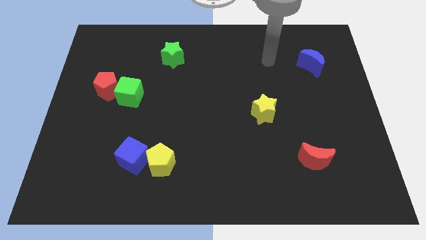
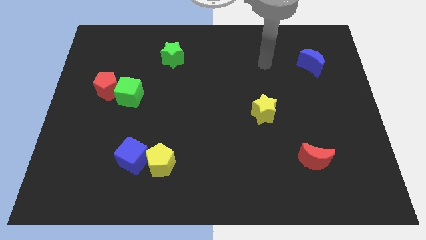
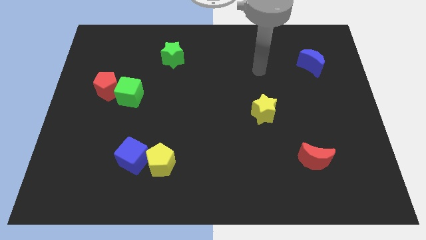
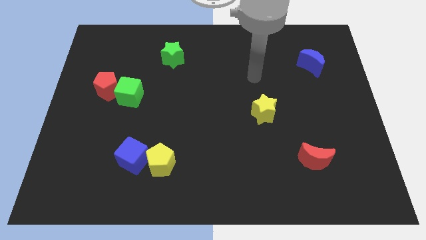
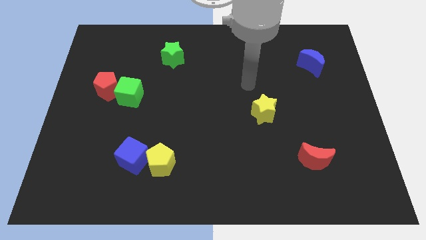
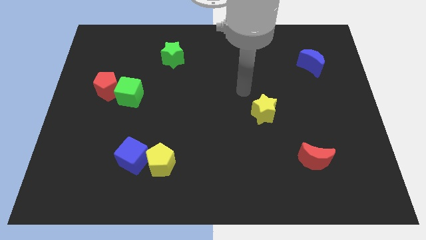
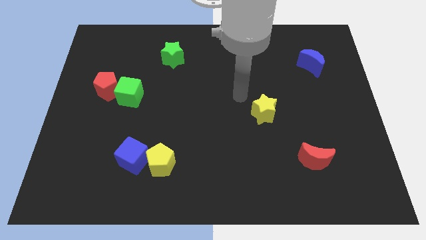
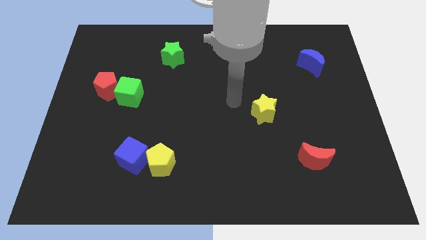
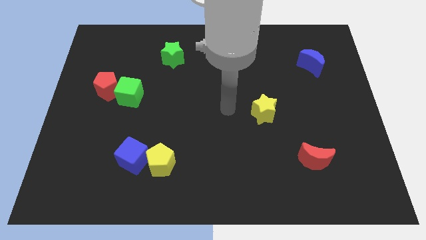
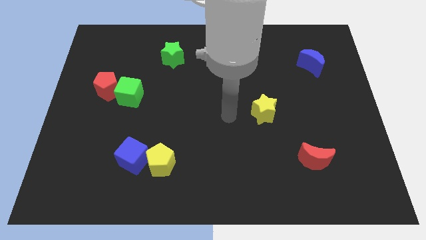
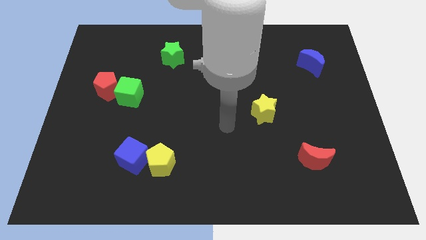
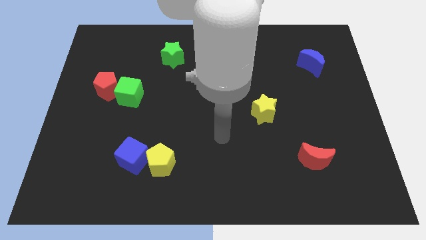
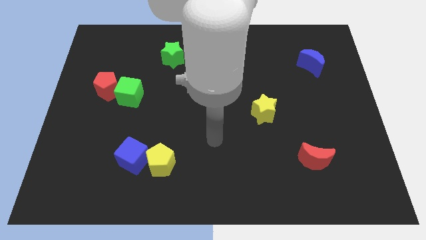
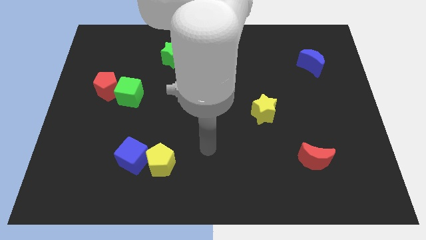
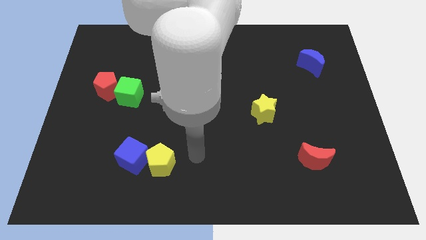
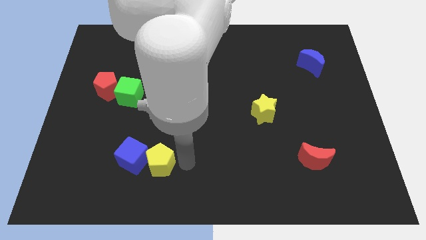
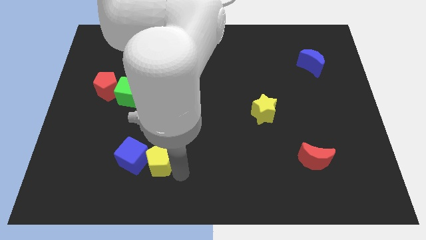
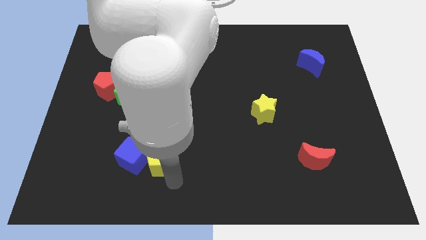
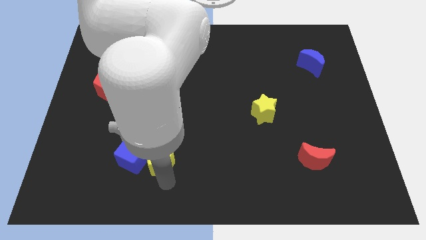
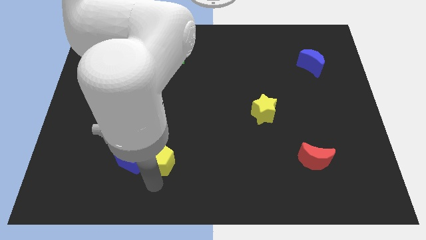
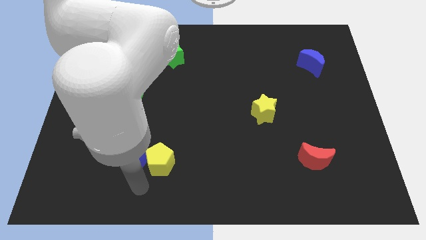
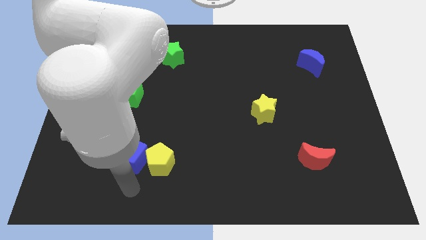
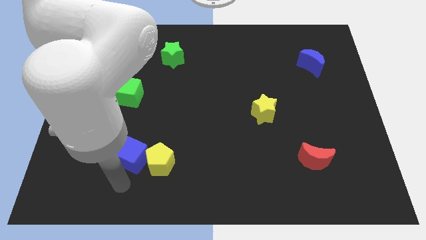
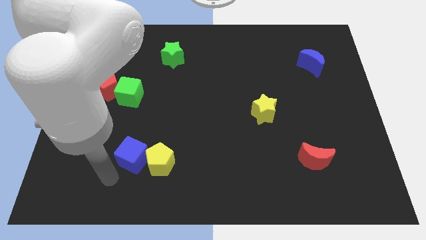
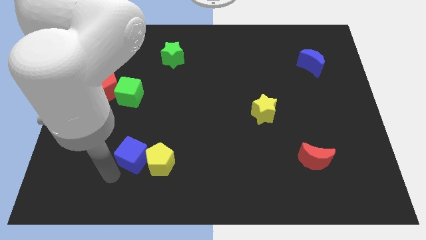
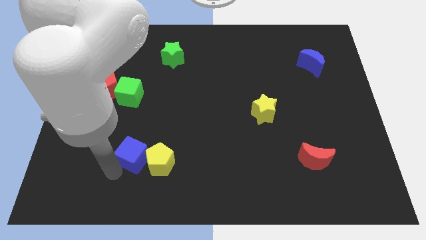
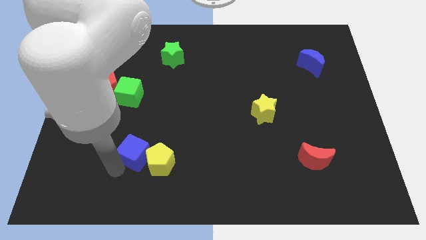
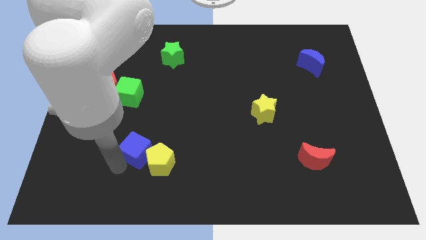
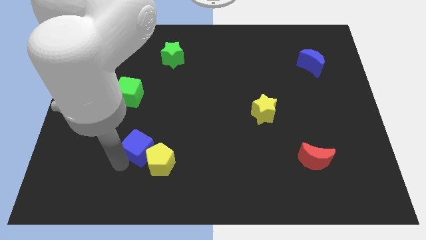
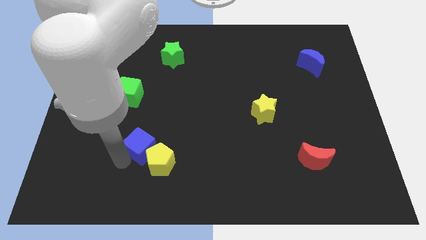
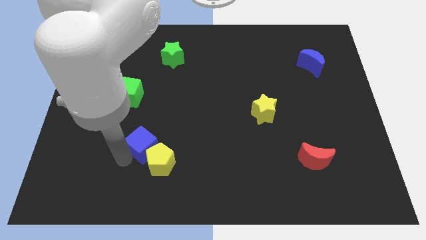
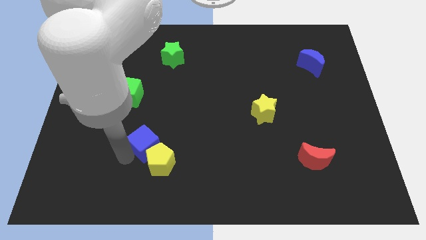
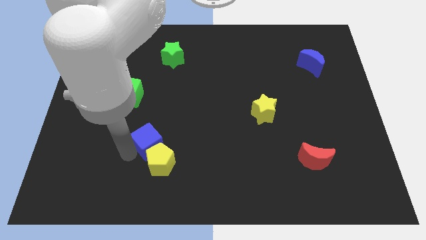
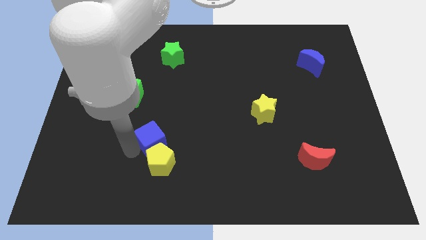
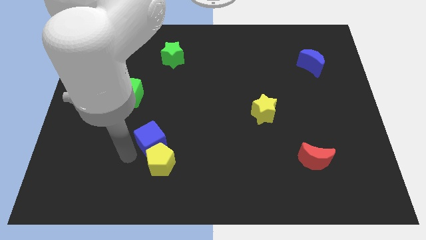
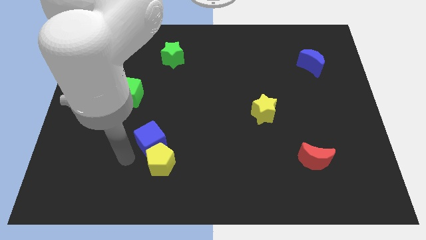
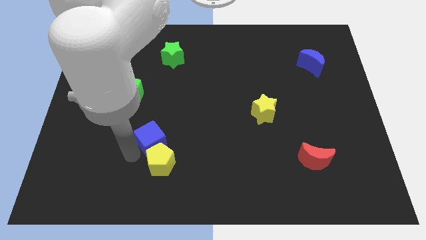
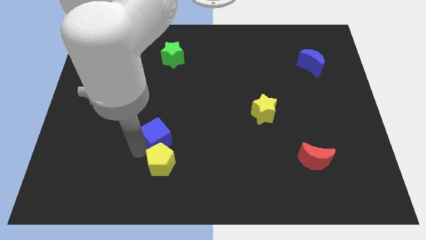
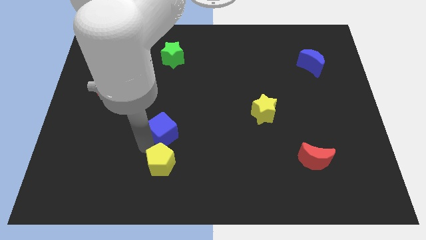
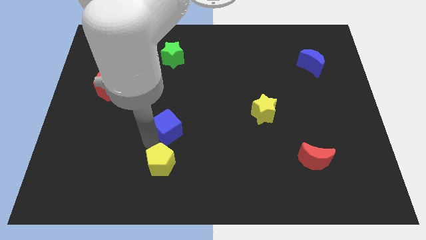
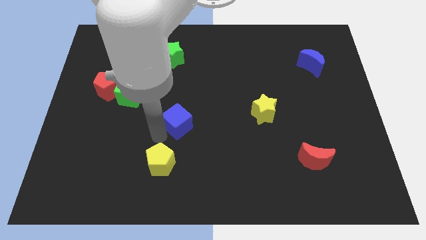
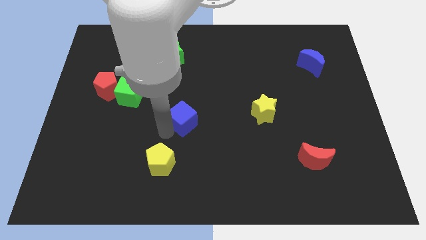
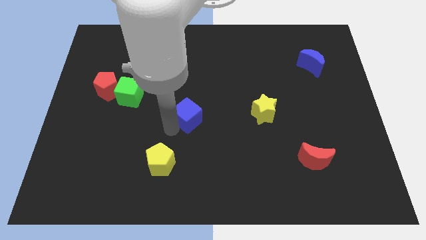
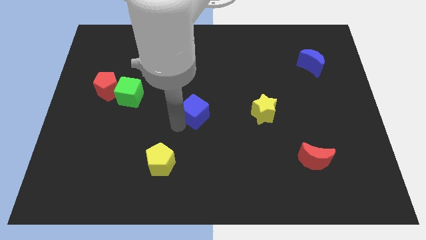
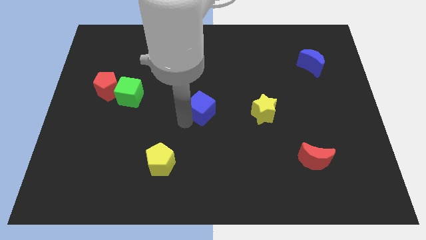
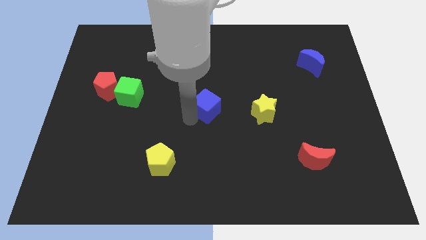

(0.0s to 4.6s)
move the blue cube diagonally upwards and right

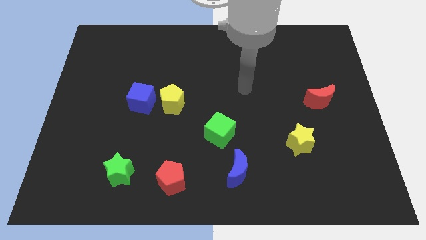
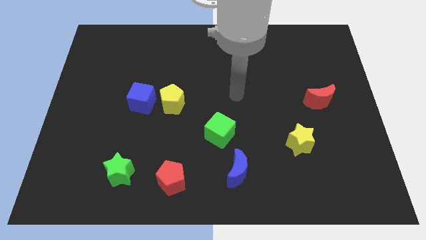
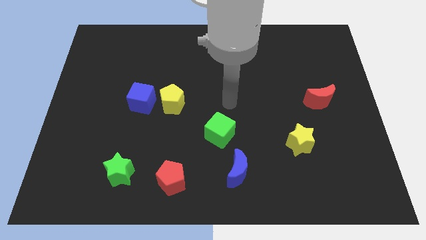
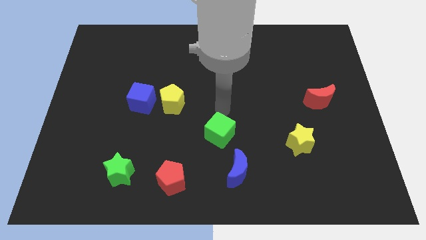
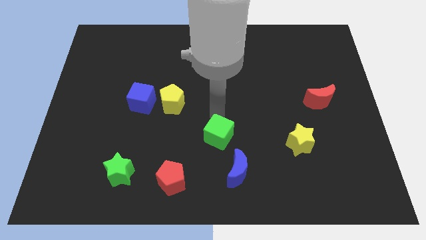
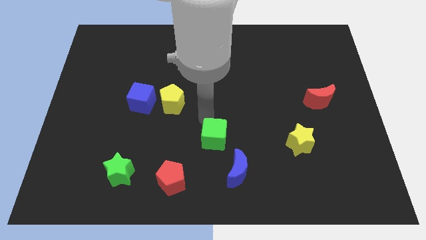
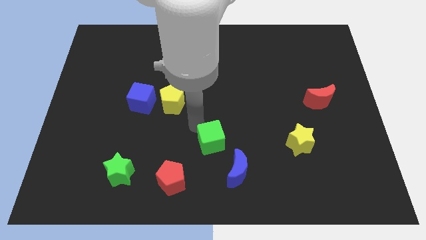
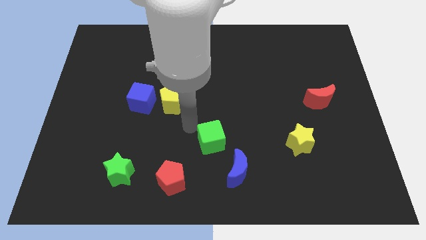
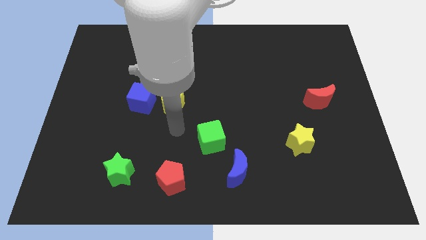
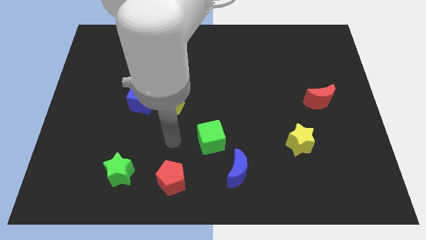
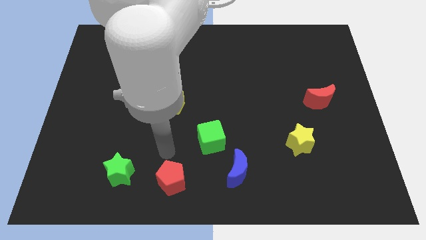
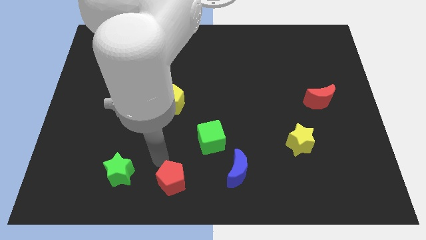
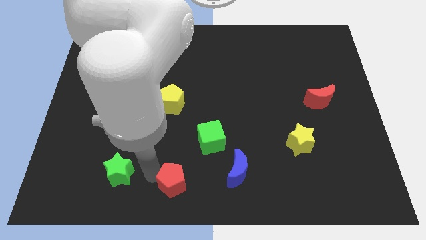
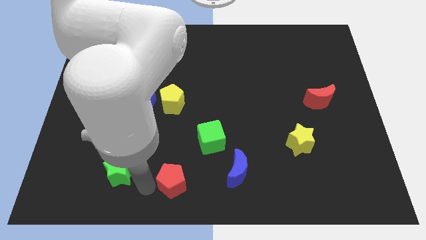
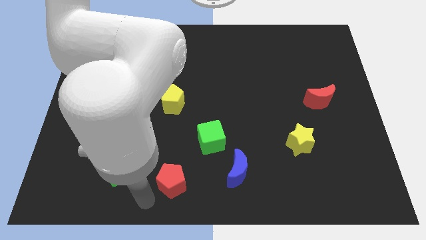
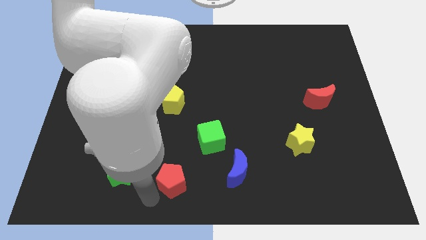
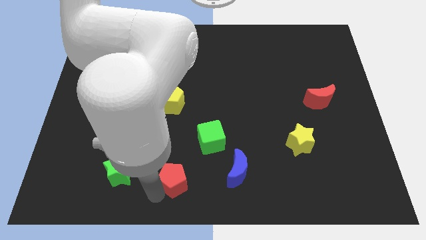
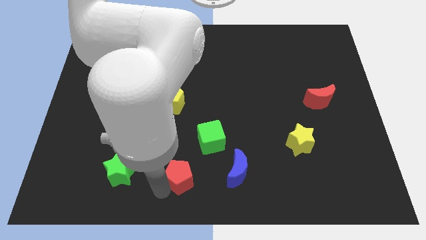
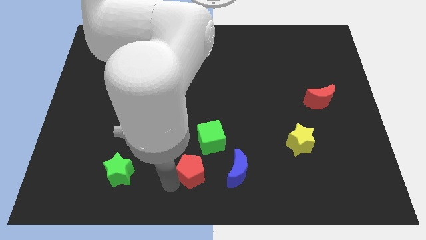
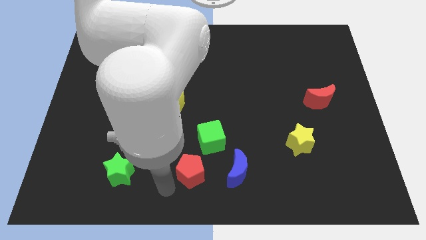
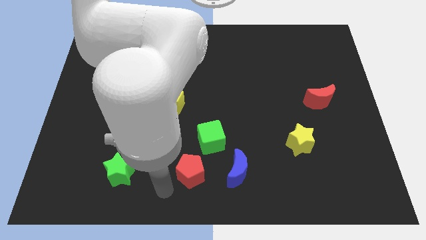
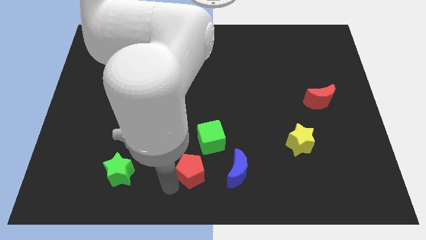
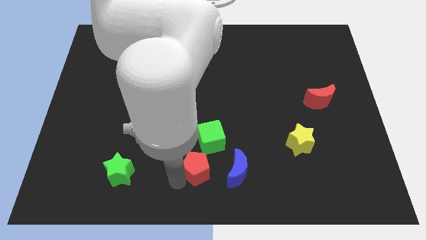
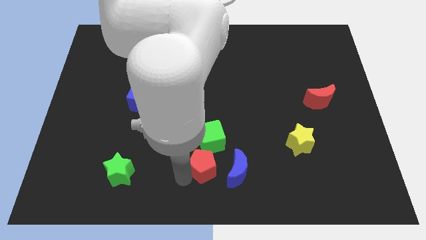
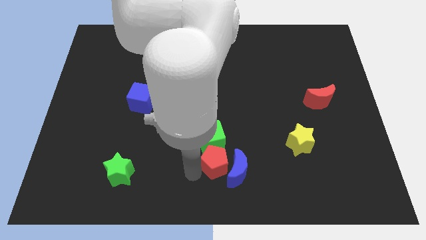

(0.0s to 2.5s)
move the red pentagon diagonally upwards and right a little

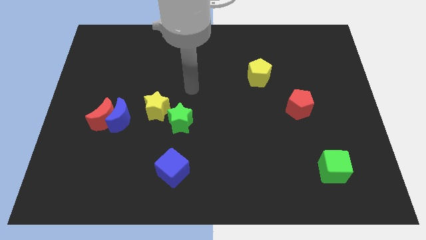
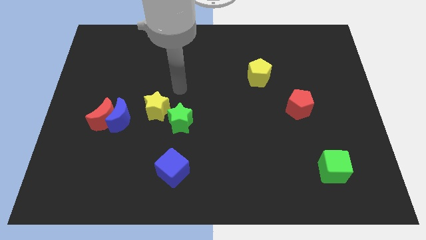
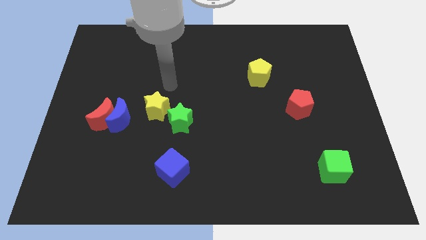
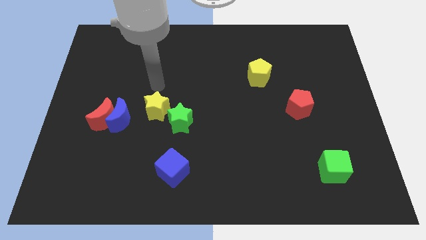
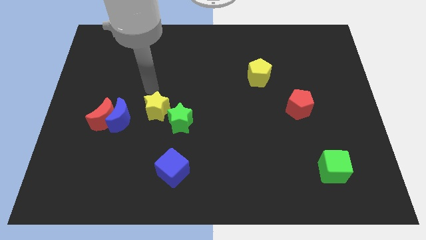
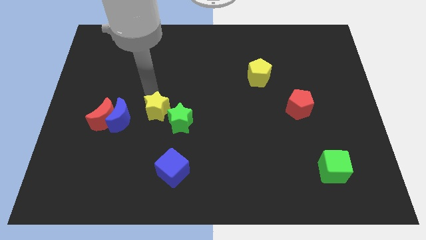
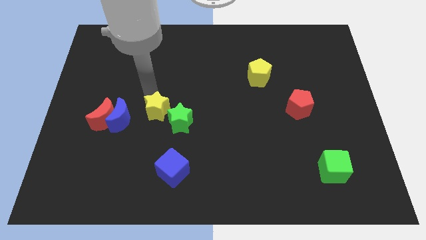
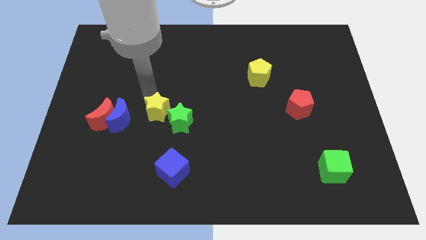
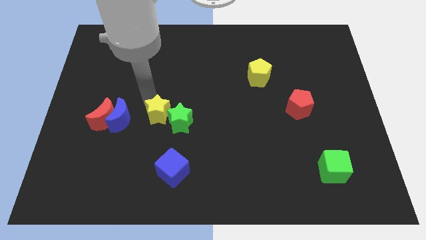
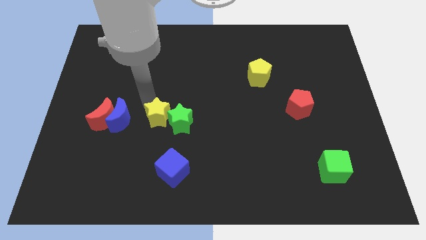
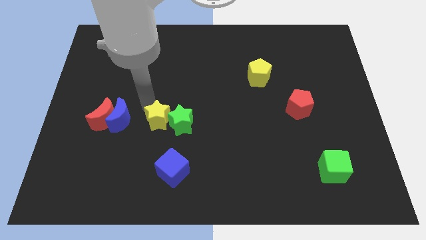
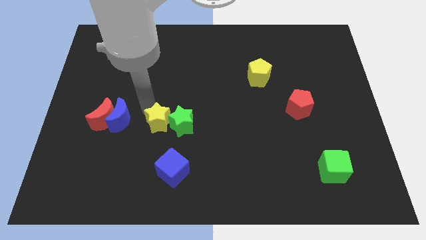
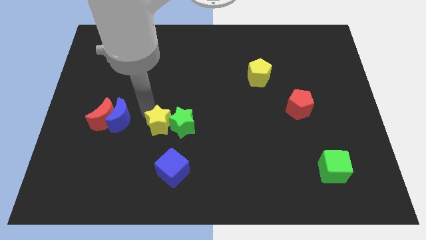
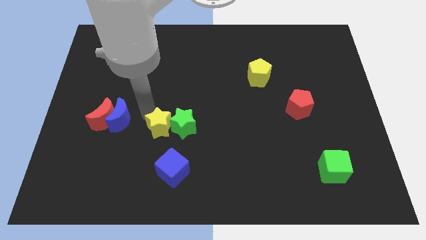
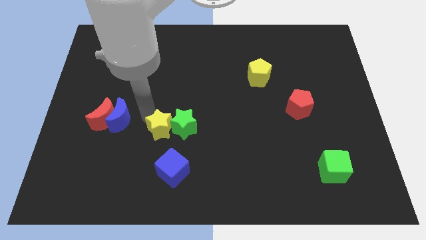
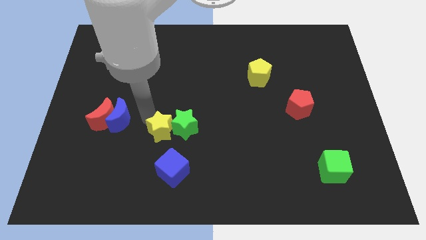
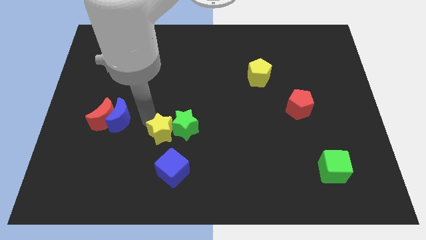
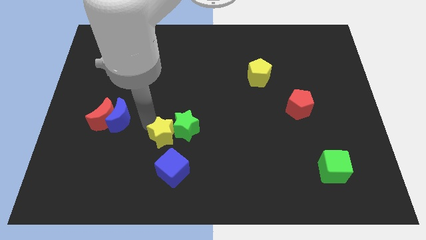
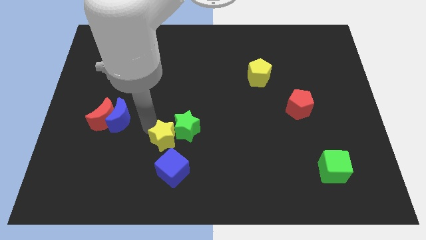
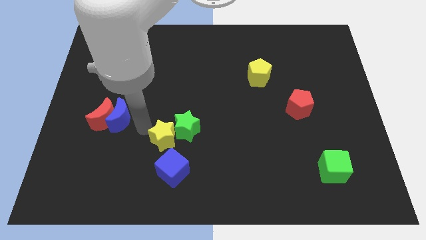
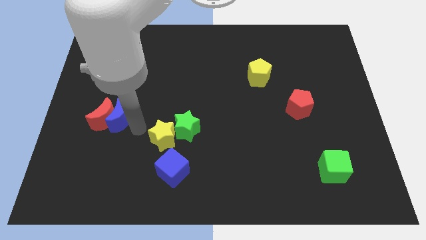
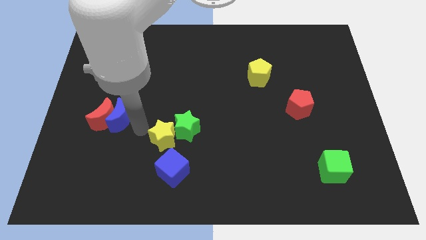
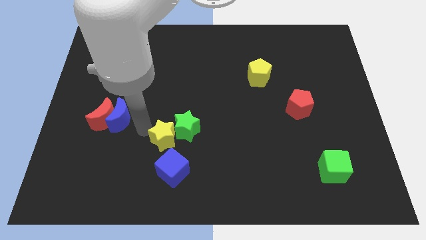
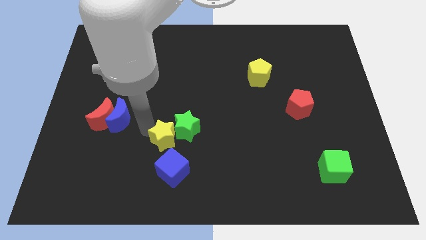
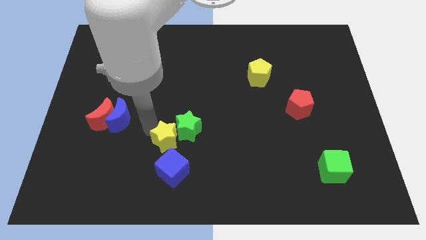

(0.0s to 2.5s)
slightly move the yellow star down and then to the right
